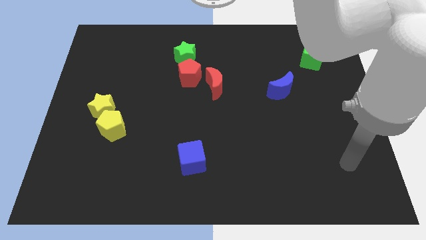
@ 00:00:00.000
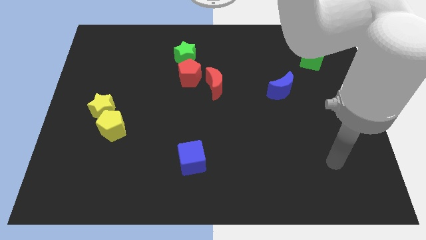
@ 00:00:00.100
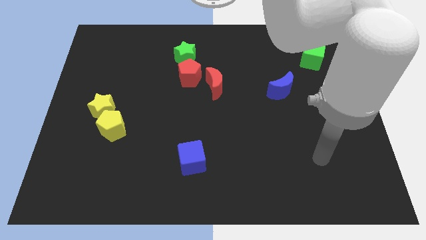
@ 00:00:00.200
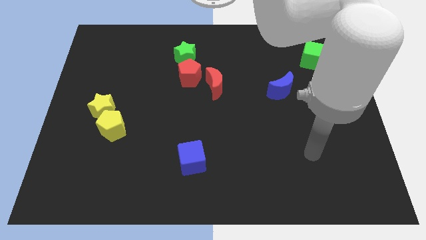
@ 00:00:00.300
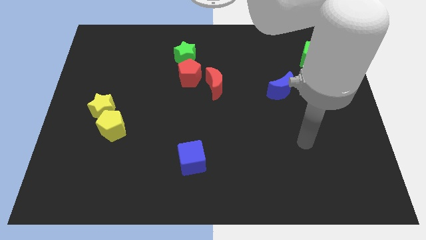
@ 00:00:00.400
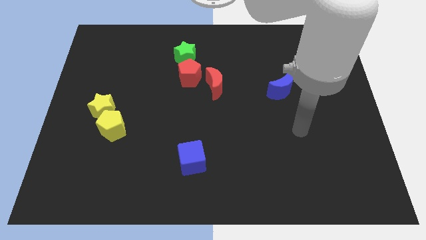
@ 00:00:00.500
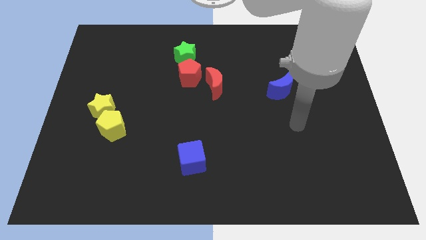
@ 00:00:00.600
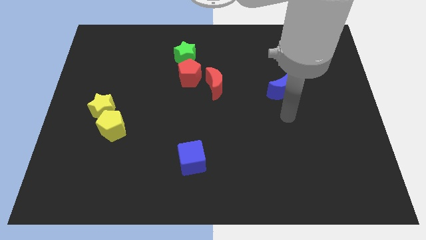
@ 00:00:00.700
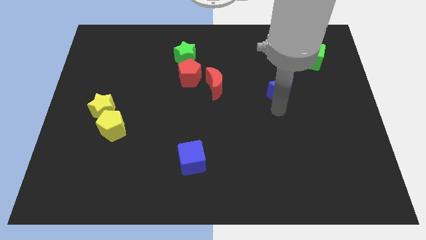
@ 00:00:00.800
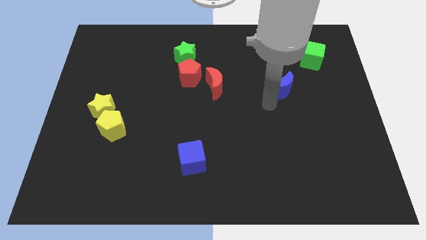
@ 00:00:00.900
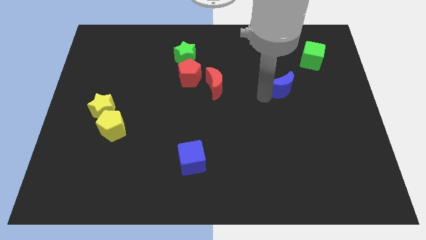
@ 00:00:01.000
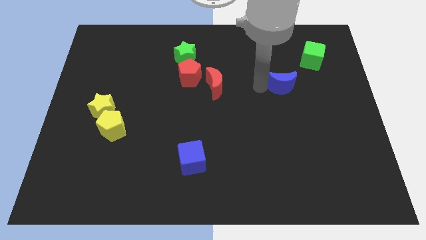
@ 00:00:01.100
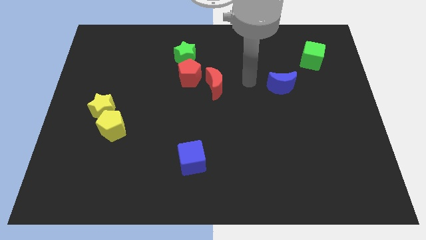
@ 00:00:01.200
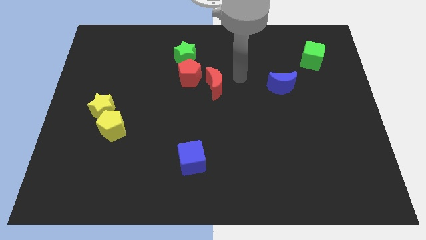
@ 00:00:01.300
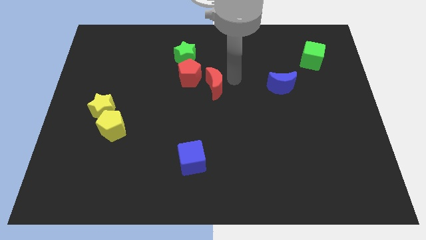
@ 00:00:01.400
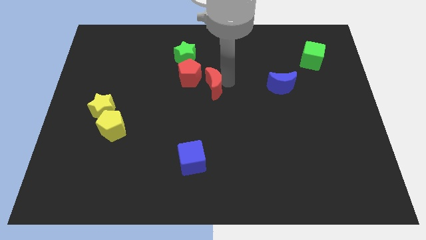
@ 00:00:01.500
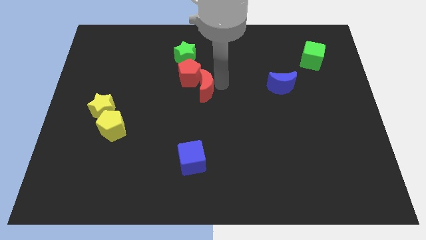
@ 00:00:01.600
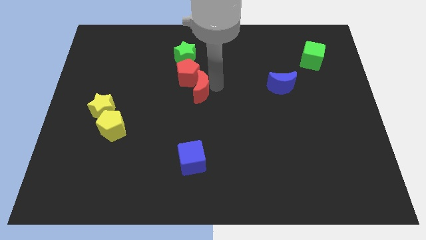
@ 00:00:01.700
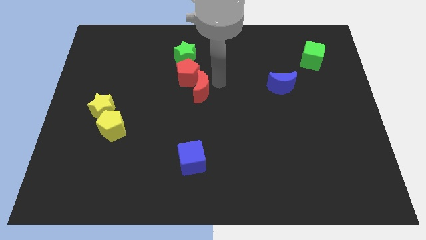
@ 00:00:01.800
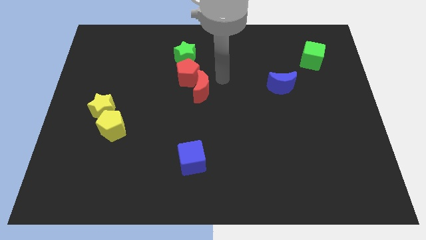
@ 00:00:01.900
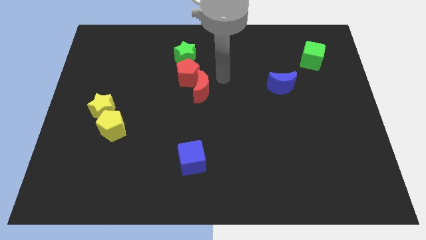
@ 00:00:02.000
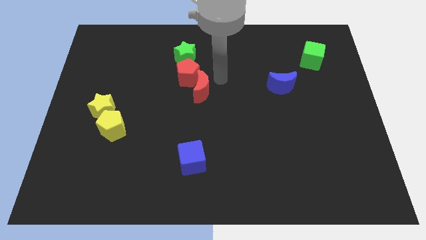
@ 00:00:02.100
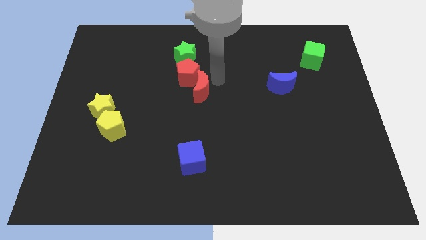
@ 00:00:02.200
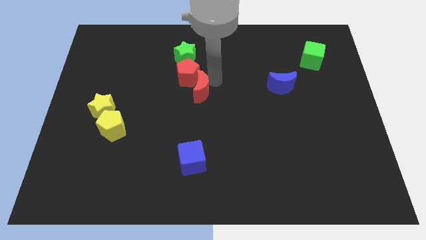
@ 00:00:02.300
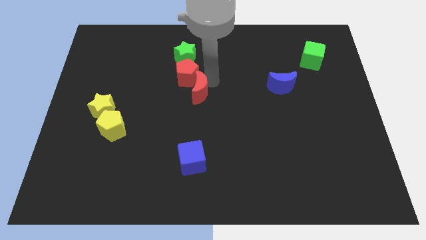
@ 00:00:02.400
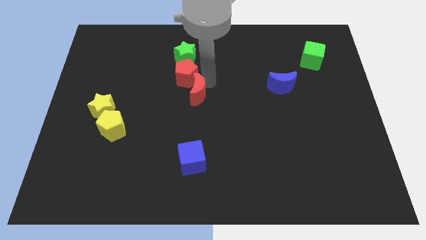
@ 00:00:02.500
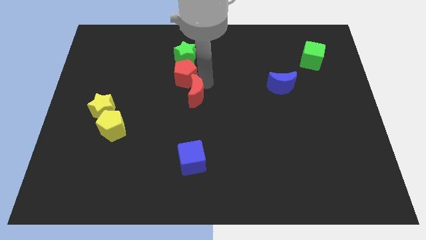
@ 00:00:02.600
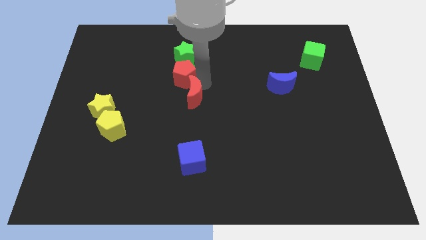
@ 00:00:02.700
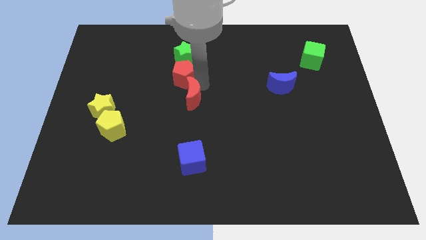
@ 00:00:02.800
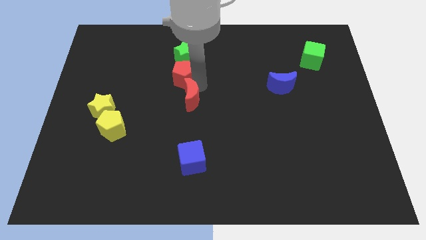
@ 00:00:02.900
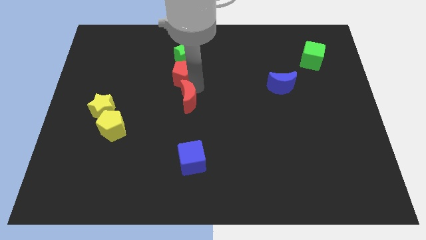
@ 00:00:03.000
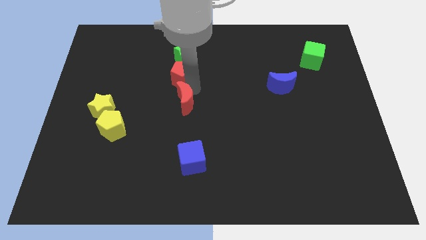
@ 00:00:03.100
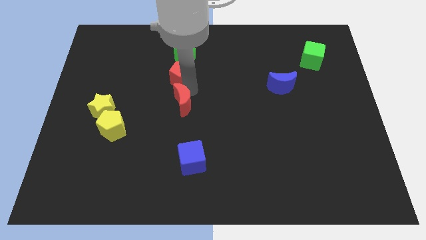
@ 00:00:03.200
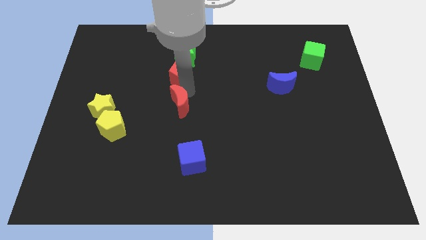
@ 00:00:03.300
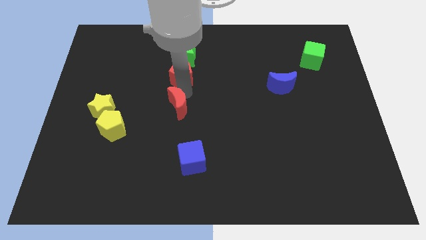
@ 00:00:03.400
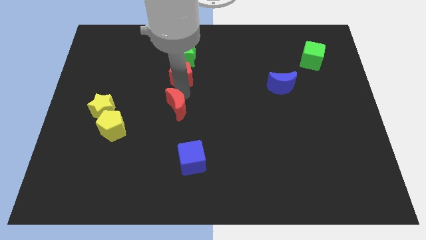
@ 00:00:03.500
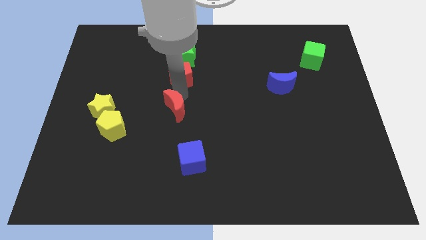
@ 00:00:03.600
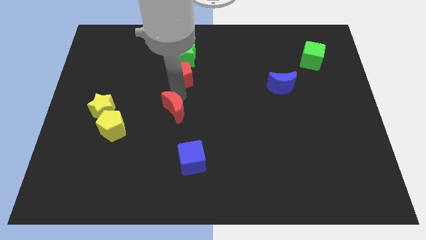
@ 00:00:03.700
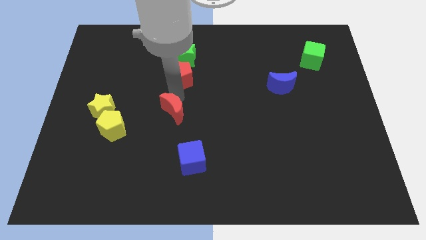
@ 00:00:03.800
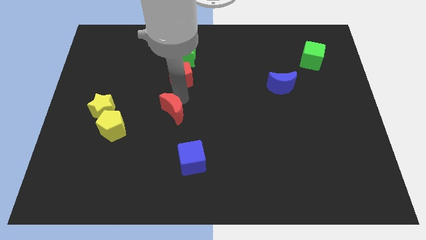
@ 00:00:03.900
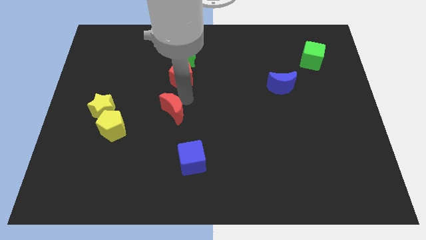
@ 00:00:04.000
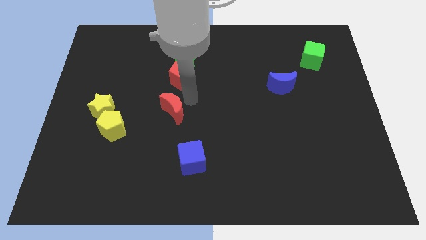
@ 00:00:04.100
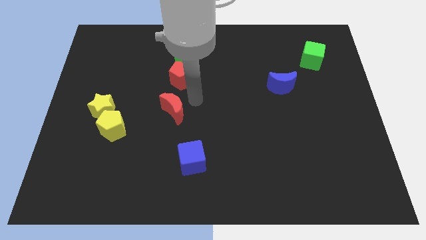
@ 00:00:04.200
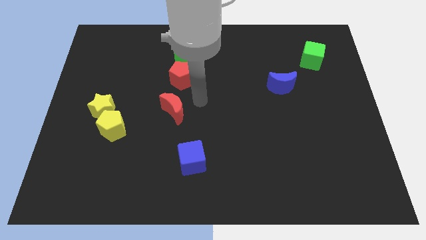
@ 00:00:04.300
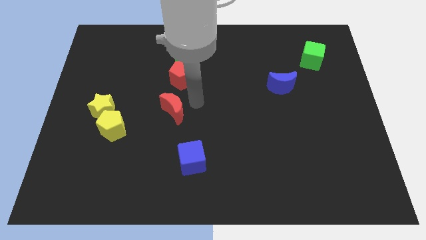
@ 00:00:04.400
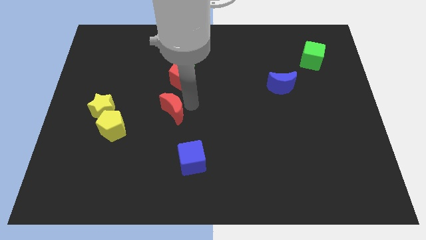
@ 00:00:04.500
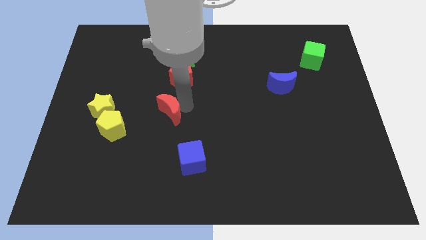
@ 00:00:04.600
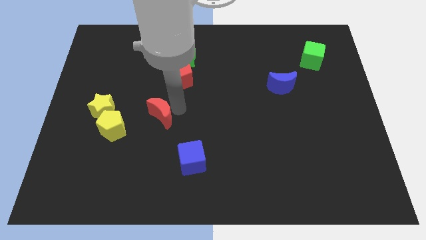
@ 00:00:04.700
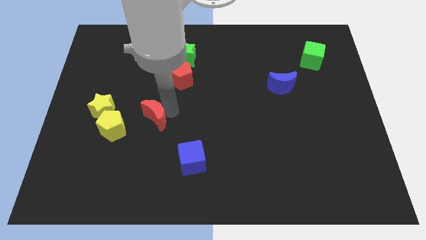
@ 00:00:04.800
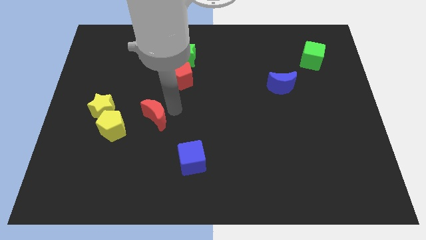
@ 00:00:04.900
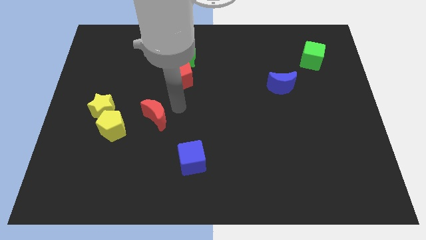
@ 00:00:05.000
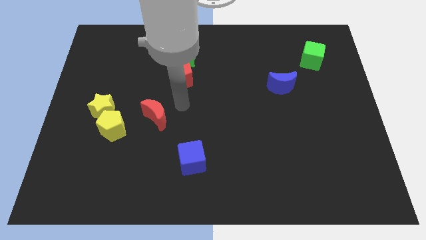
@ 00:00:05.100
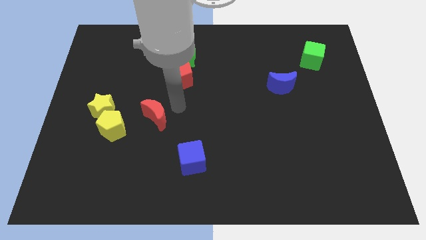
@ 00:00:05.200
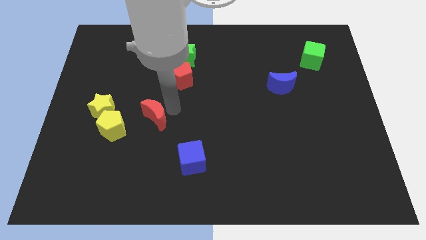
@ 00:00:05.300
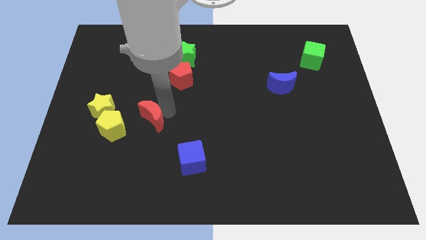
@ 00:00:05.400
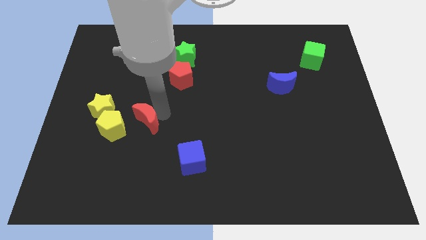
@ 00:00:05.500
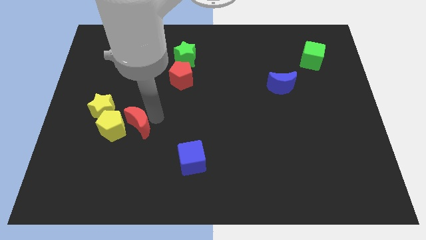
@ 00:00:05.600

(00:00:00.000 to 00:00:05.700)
move the red moon diagonally down and to the right of the yellow star
